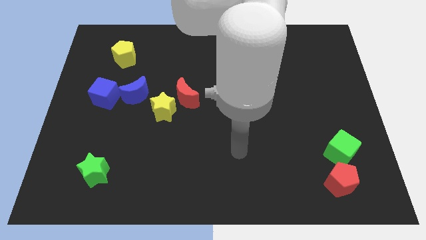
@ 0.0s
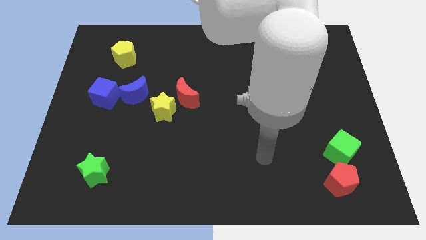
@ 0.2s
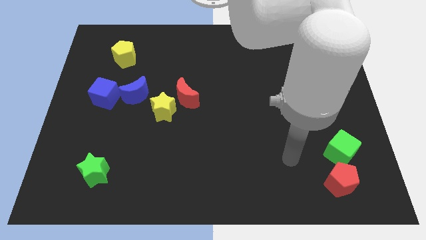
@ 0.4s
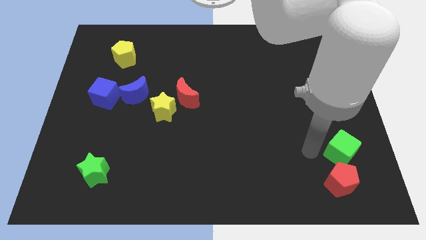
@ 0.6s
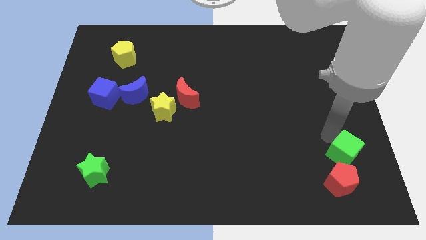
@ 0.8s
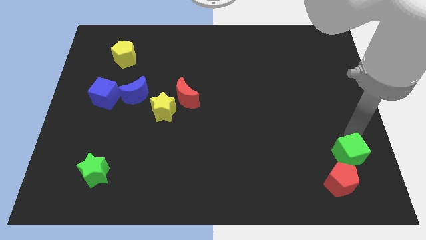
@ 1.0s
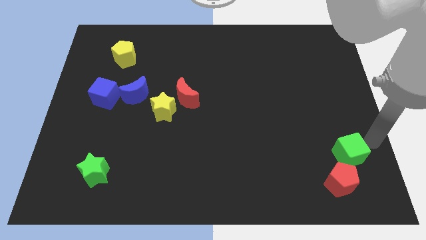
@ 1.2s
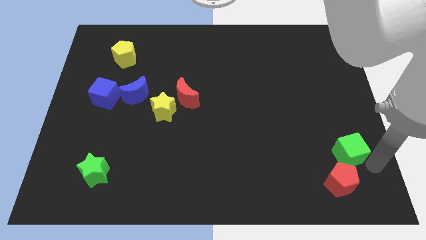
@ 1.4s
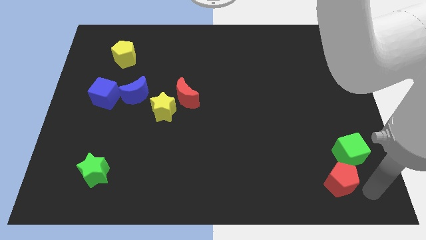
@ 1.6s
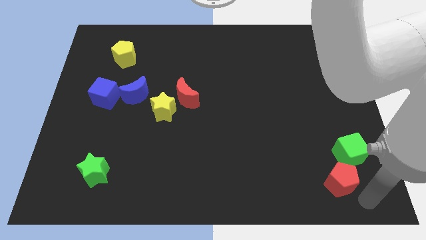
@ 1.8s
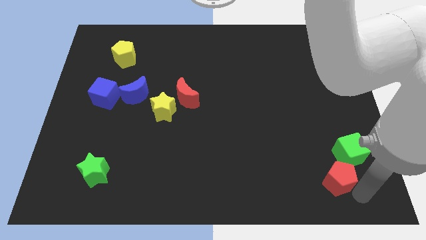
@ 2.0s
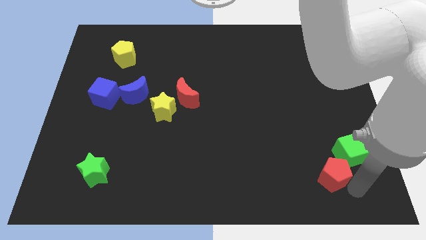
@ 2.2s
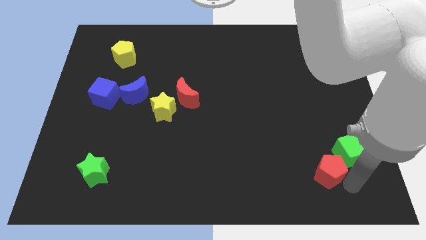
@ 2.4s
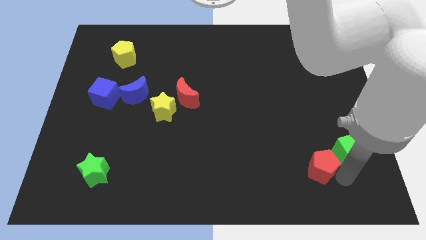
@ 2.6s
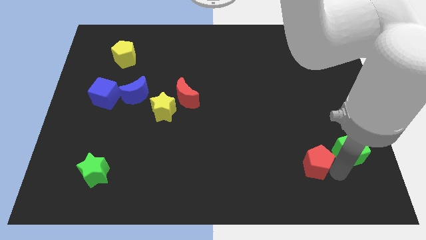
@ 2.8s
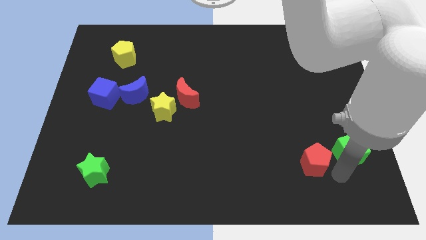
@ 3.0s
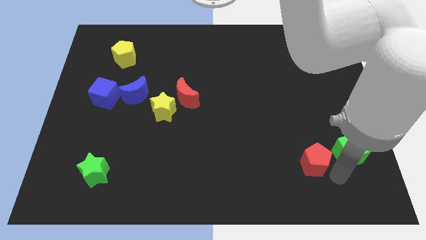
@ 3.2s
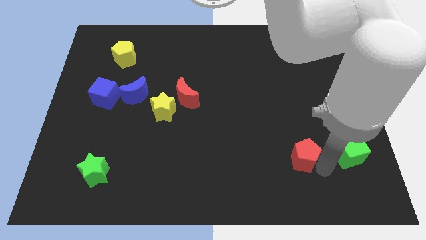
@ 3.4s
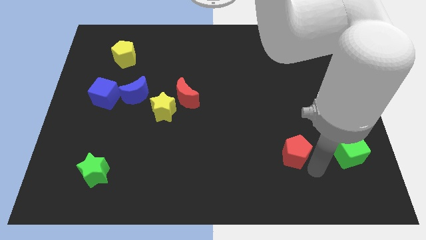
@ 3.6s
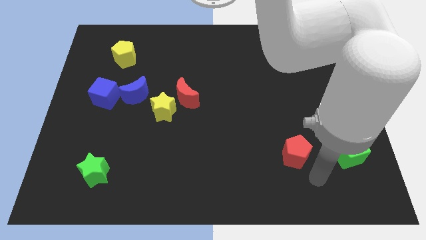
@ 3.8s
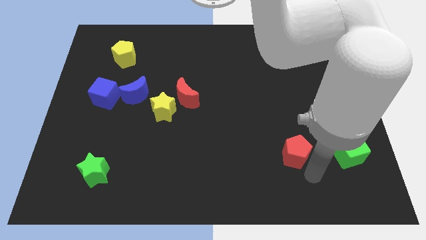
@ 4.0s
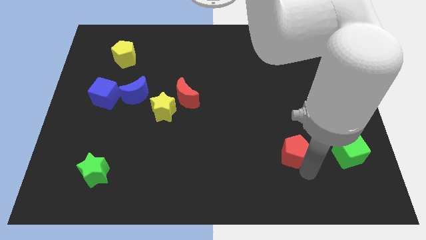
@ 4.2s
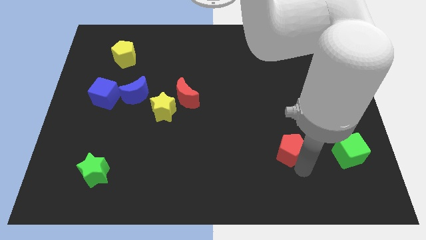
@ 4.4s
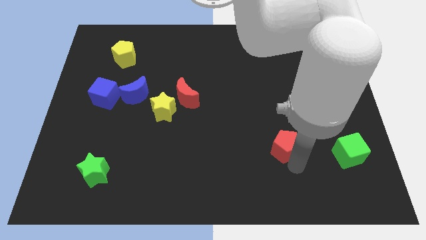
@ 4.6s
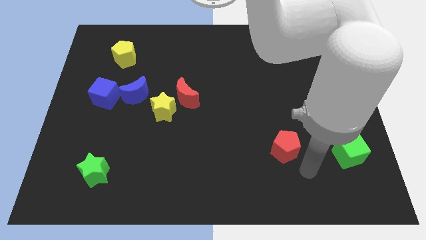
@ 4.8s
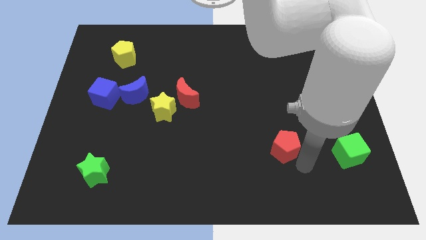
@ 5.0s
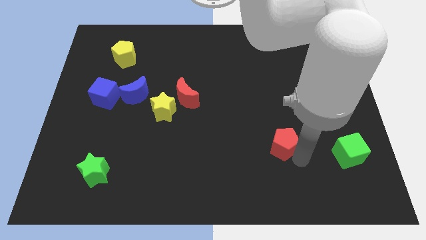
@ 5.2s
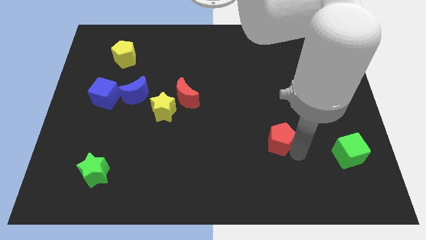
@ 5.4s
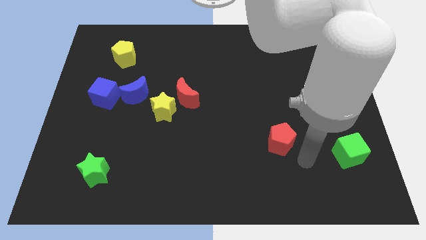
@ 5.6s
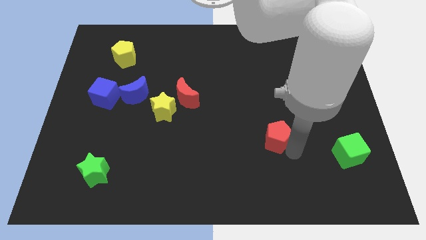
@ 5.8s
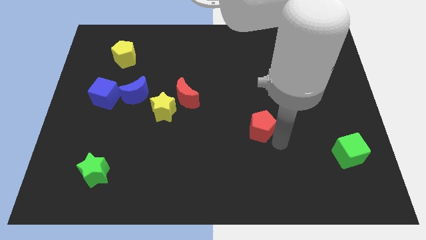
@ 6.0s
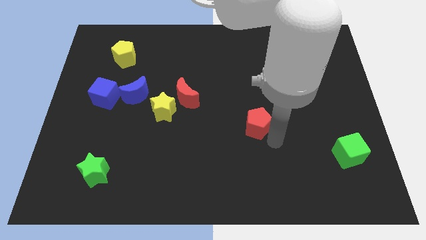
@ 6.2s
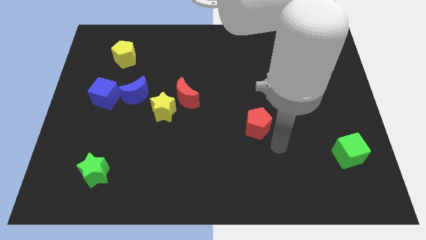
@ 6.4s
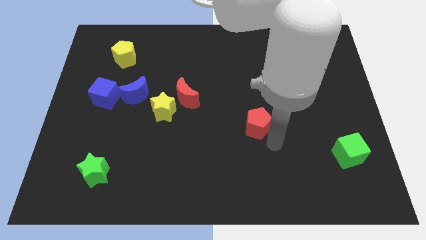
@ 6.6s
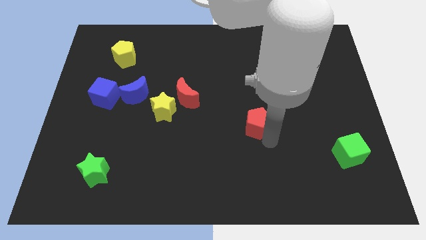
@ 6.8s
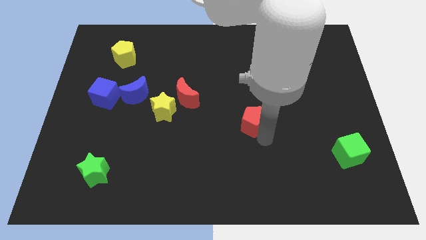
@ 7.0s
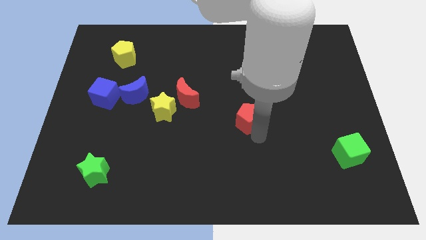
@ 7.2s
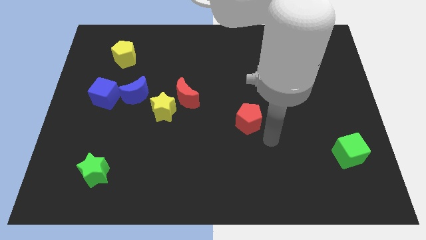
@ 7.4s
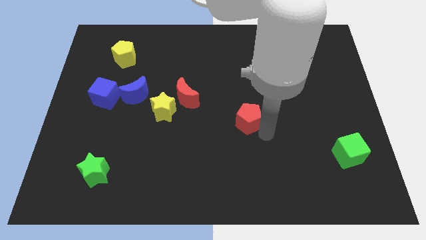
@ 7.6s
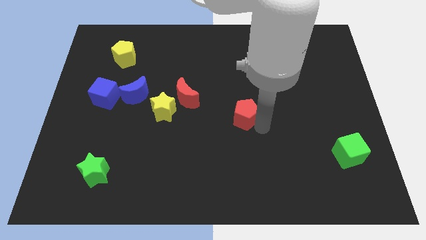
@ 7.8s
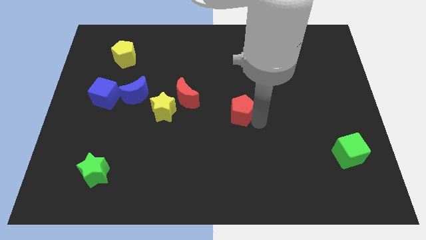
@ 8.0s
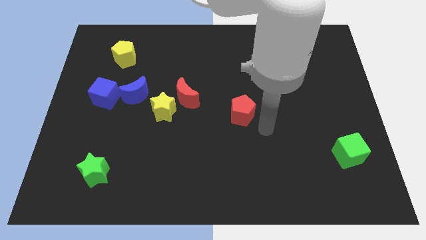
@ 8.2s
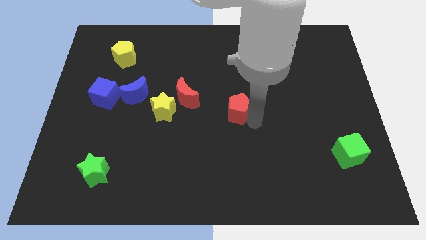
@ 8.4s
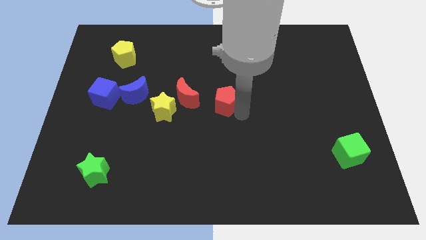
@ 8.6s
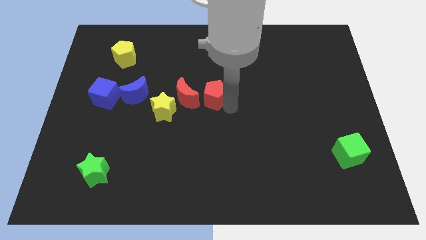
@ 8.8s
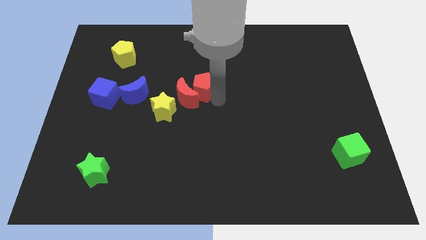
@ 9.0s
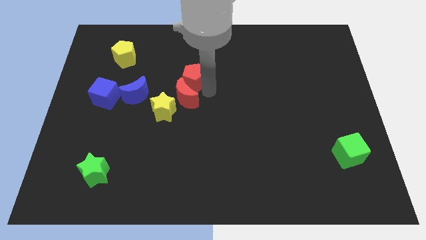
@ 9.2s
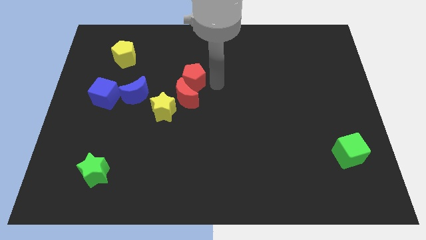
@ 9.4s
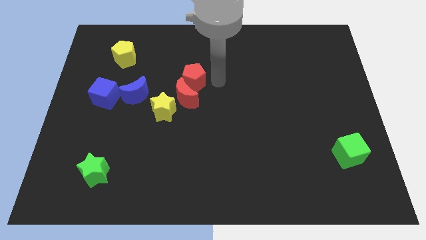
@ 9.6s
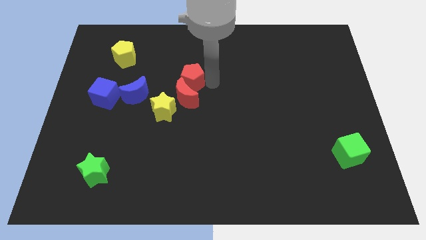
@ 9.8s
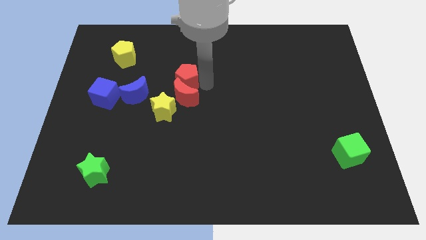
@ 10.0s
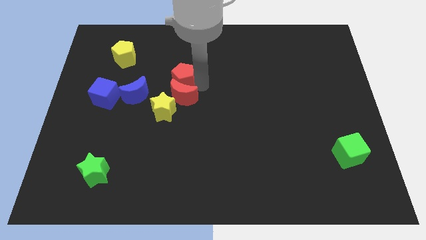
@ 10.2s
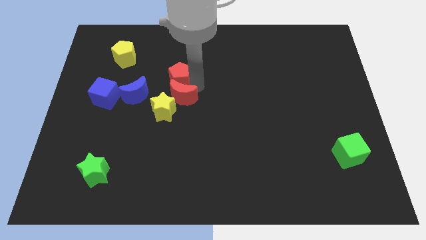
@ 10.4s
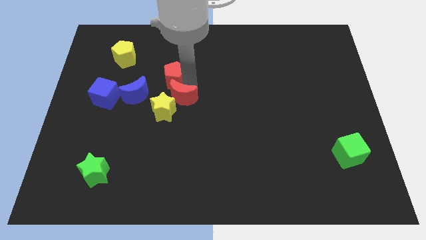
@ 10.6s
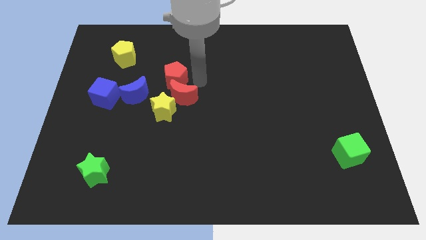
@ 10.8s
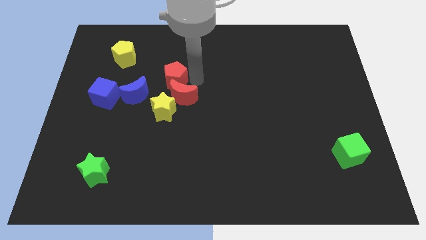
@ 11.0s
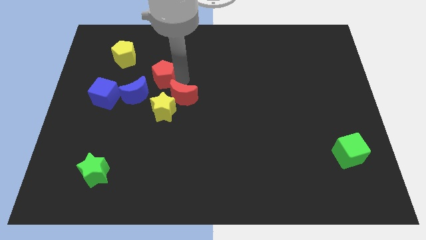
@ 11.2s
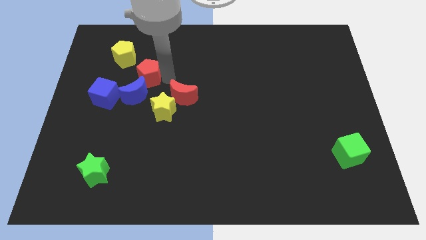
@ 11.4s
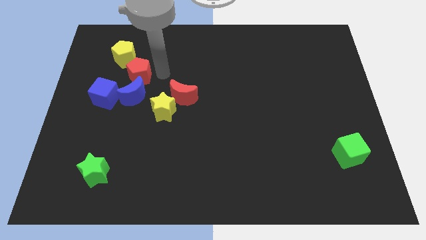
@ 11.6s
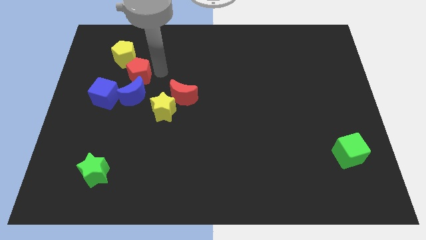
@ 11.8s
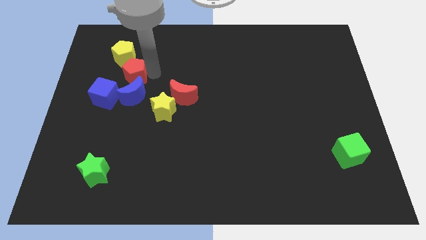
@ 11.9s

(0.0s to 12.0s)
slide the red pentagon diagonally up and to the left of the blue moon
